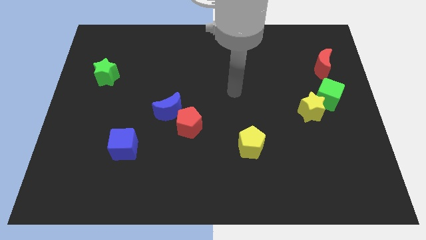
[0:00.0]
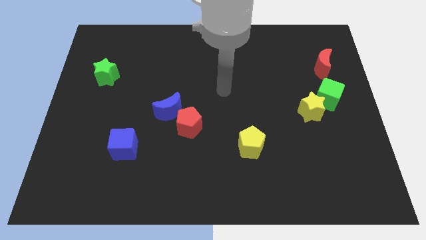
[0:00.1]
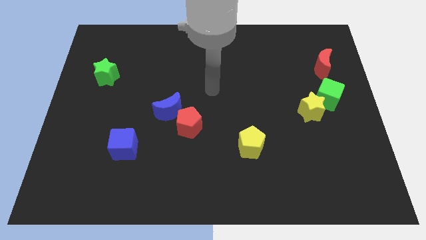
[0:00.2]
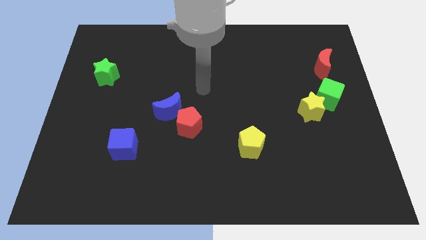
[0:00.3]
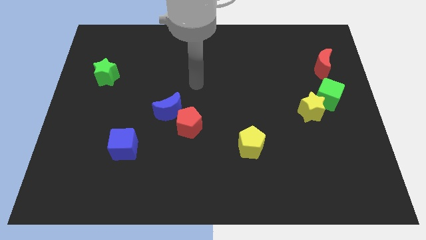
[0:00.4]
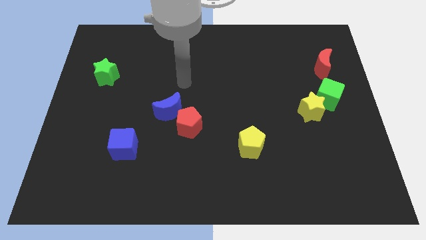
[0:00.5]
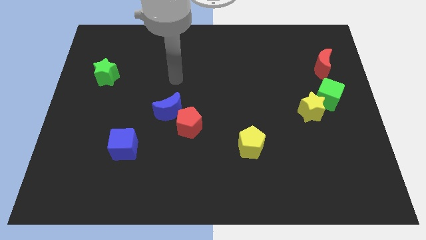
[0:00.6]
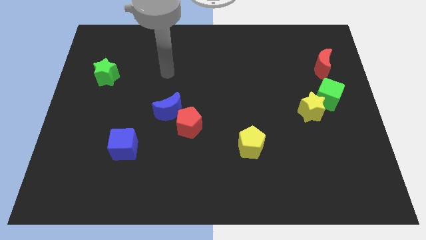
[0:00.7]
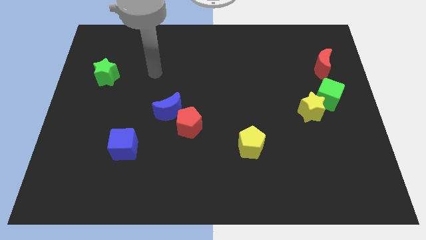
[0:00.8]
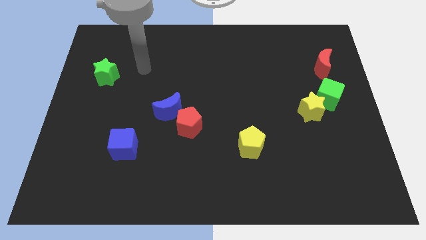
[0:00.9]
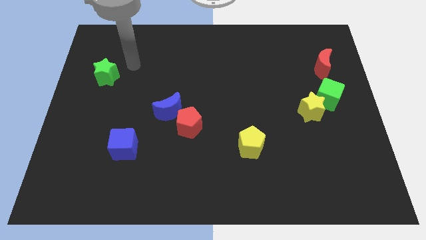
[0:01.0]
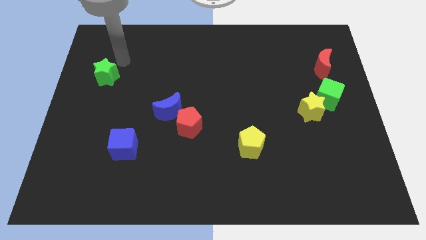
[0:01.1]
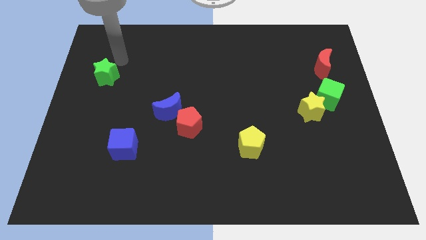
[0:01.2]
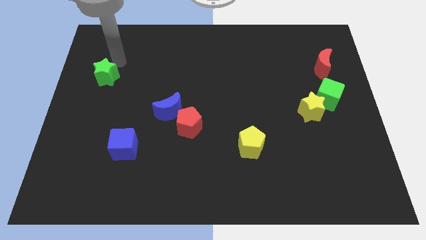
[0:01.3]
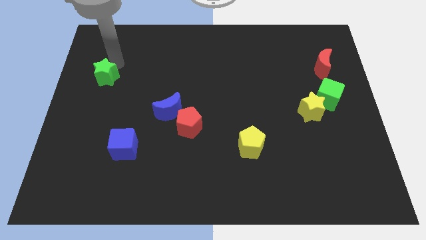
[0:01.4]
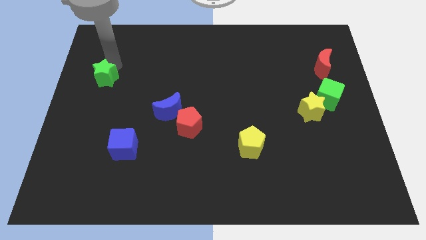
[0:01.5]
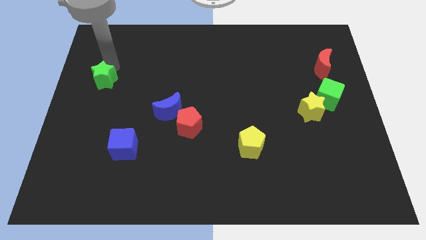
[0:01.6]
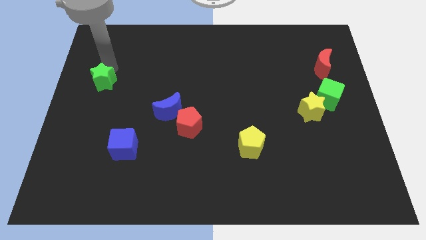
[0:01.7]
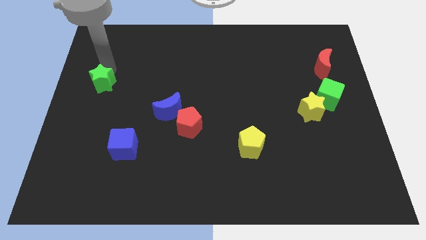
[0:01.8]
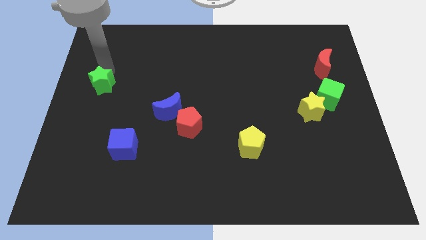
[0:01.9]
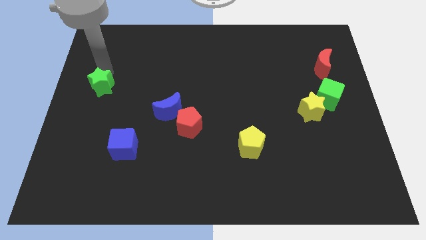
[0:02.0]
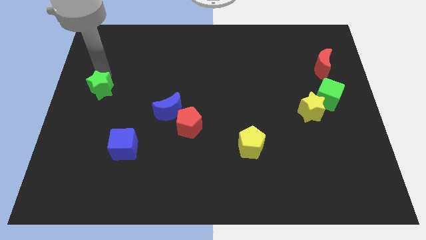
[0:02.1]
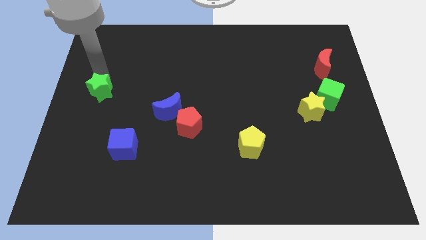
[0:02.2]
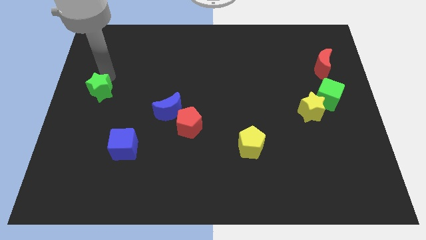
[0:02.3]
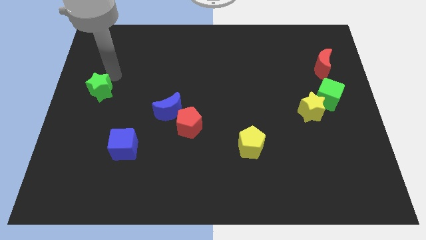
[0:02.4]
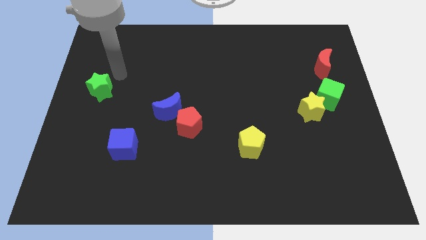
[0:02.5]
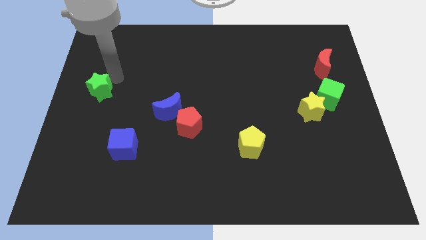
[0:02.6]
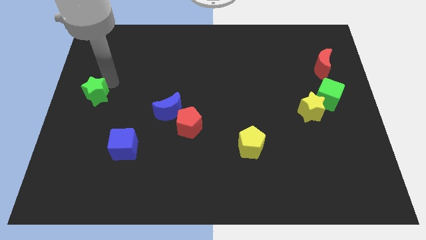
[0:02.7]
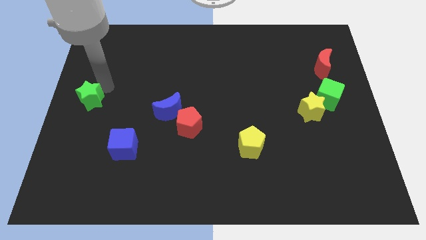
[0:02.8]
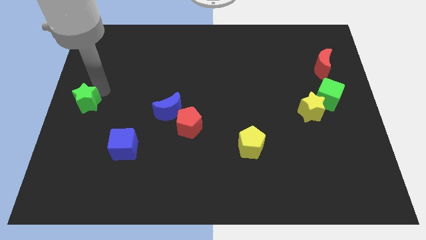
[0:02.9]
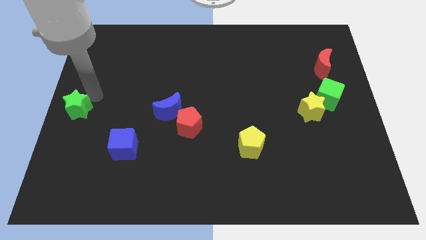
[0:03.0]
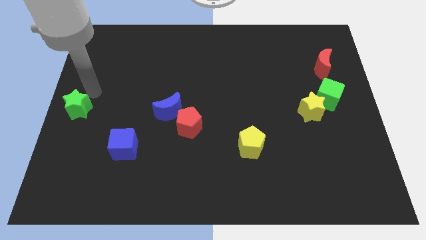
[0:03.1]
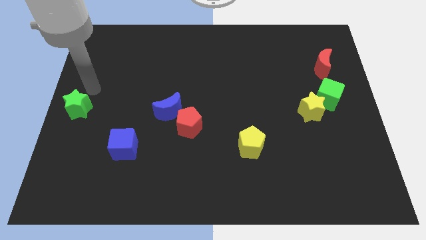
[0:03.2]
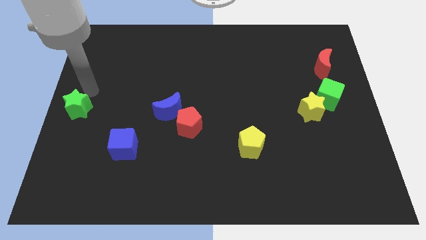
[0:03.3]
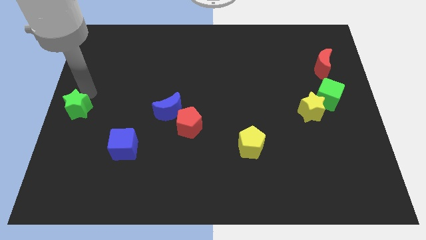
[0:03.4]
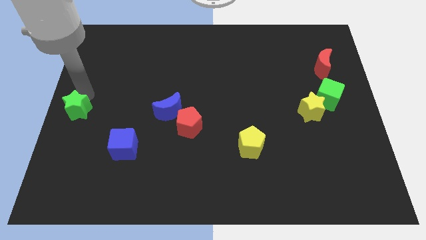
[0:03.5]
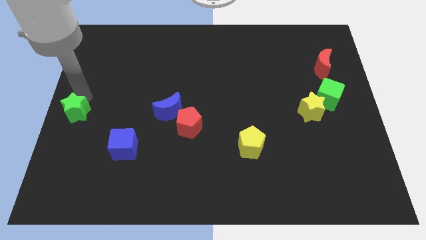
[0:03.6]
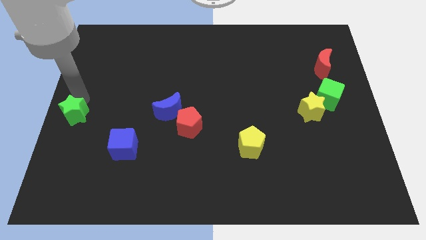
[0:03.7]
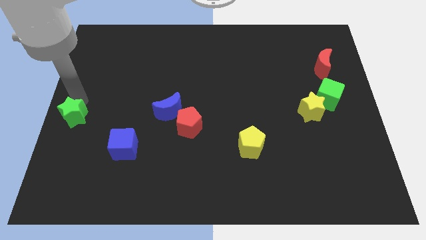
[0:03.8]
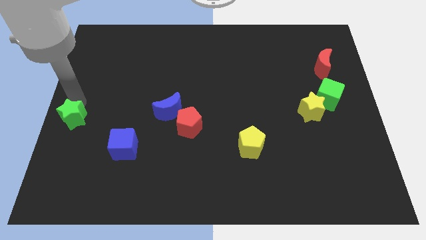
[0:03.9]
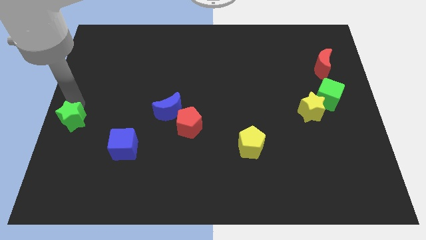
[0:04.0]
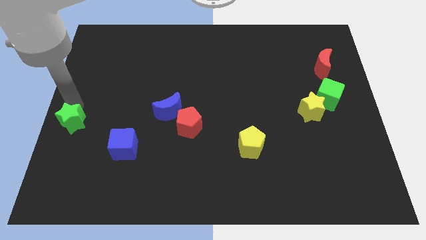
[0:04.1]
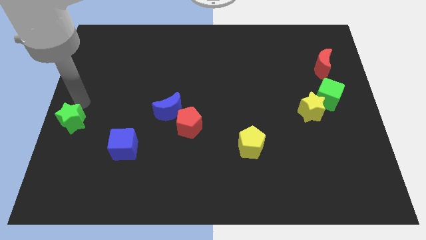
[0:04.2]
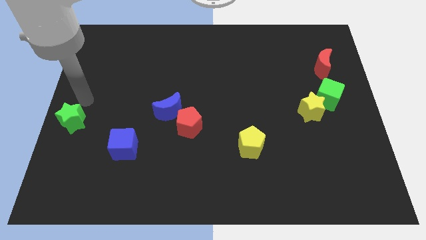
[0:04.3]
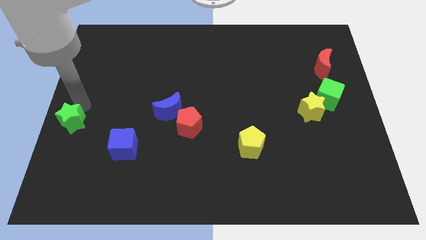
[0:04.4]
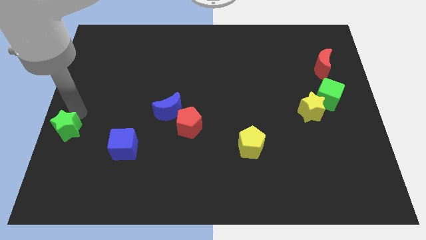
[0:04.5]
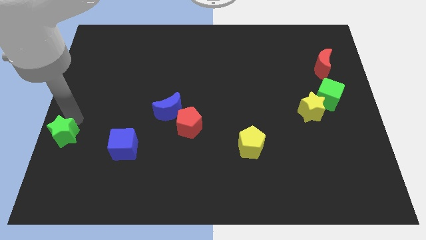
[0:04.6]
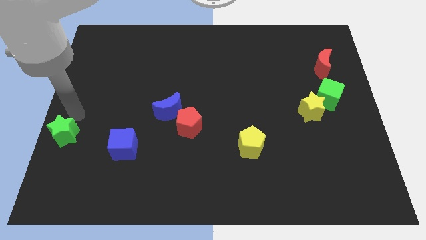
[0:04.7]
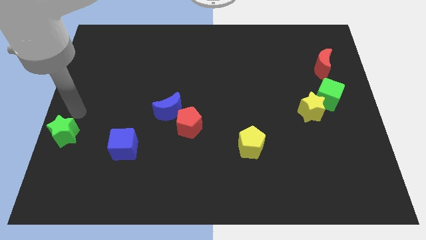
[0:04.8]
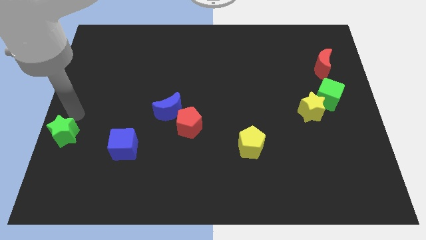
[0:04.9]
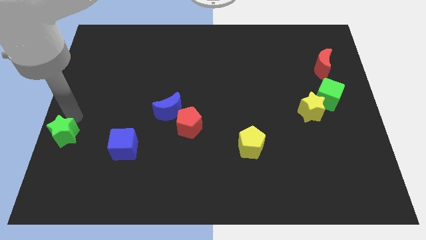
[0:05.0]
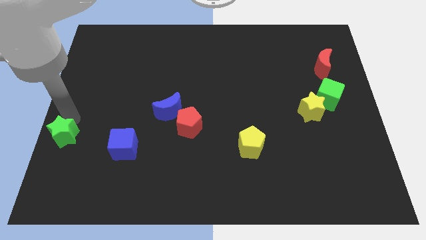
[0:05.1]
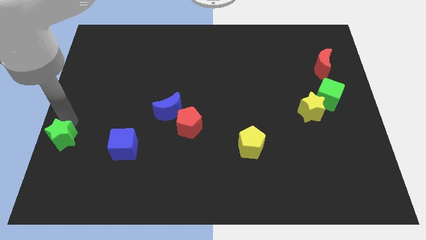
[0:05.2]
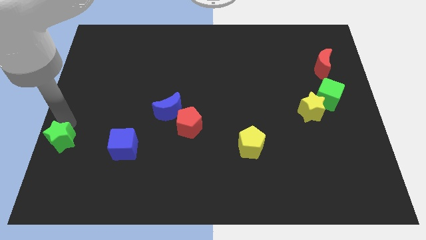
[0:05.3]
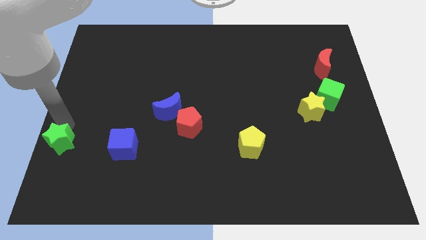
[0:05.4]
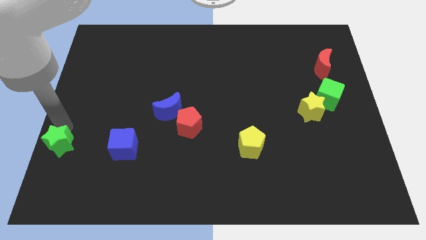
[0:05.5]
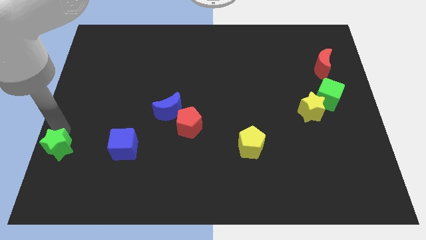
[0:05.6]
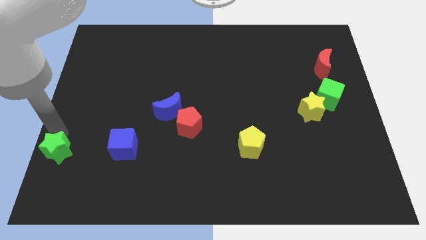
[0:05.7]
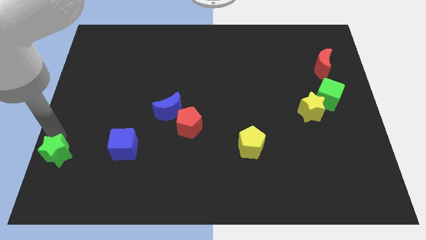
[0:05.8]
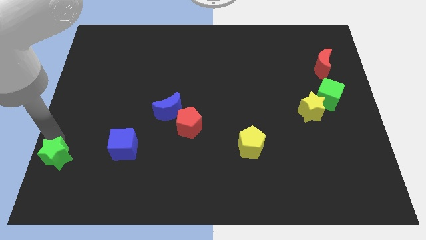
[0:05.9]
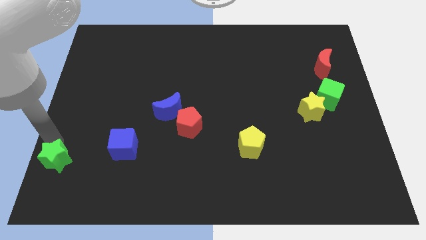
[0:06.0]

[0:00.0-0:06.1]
slide the green star to the bottom left
